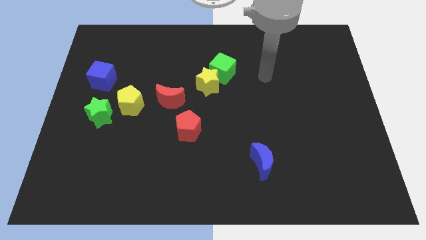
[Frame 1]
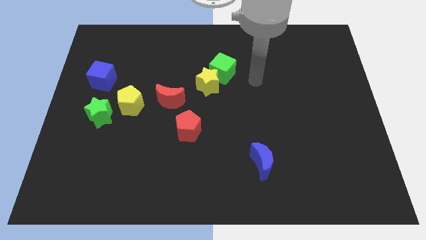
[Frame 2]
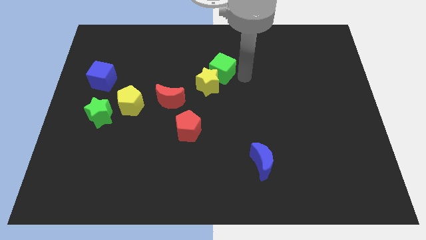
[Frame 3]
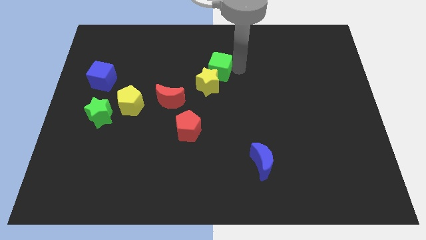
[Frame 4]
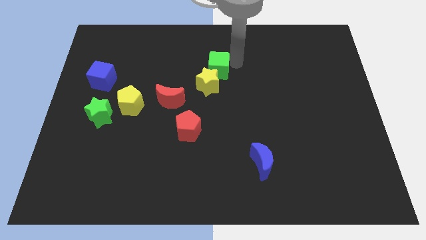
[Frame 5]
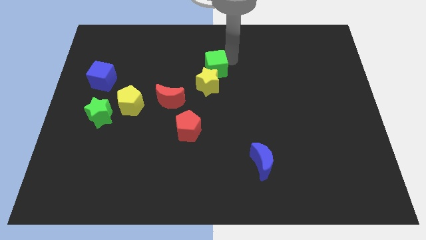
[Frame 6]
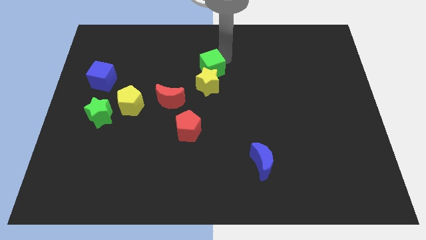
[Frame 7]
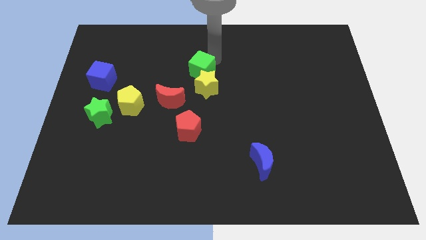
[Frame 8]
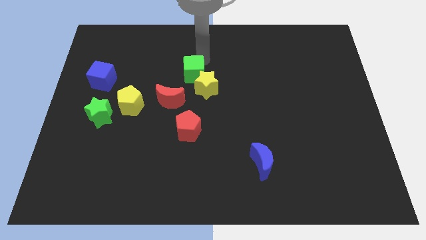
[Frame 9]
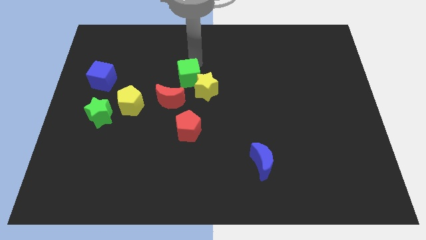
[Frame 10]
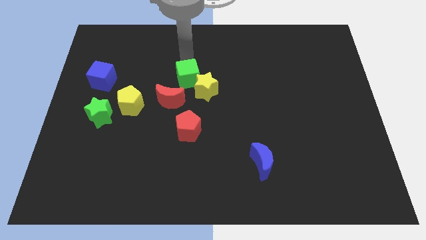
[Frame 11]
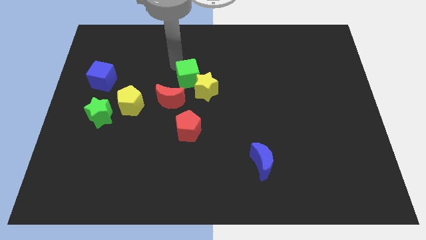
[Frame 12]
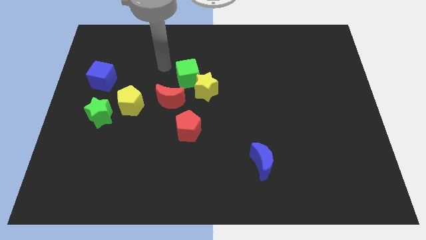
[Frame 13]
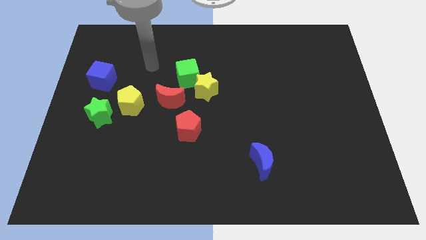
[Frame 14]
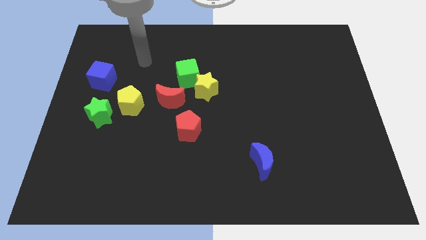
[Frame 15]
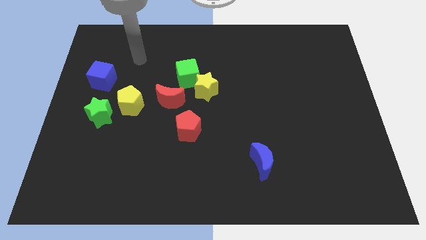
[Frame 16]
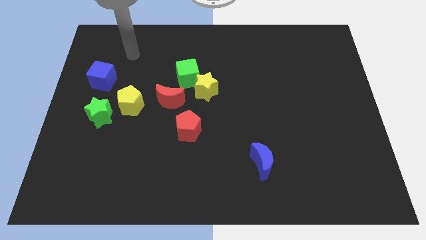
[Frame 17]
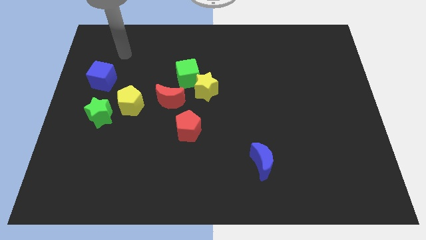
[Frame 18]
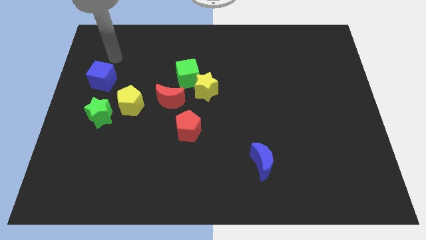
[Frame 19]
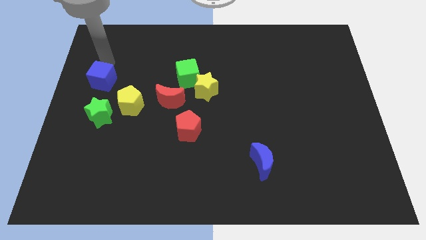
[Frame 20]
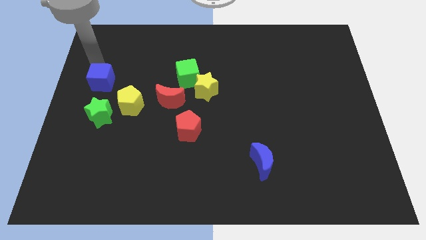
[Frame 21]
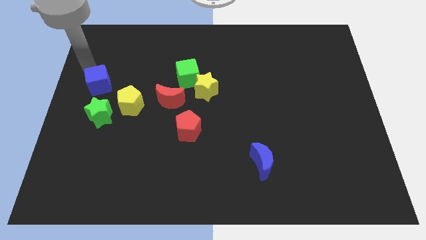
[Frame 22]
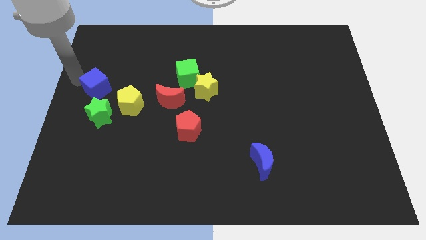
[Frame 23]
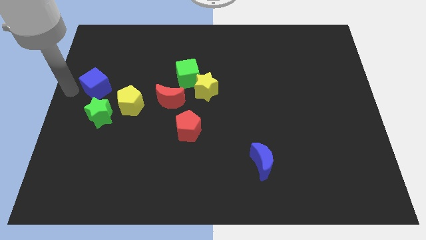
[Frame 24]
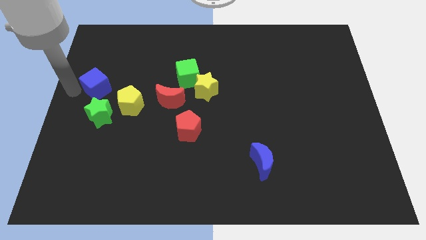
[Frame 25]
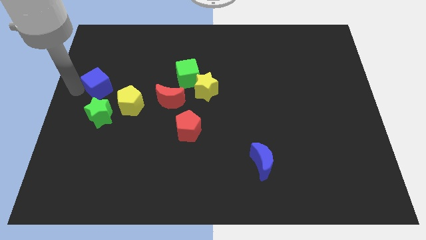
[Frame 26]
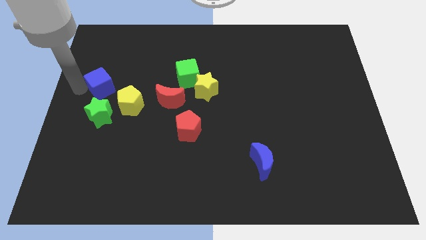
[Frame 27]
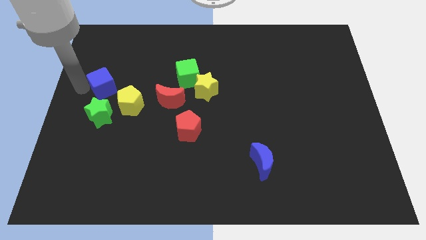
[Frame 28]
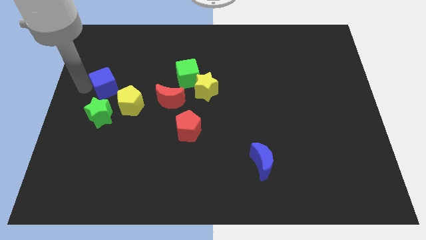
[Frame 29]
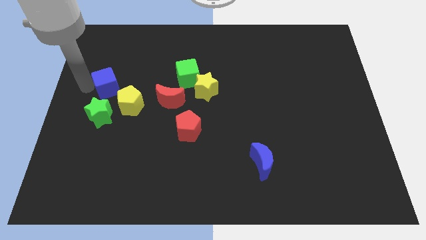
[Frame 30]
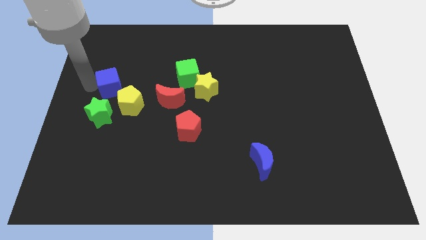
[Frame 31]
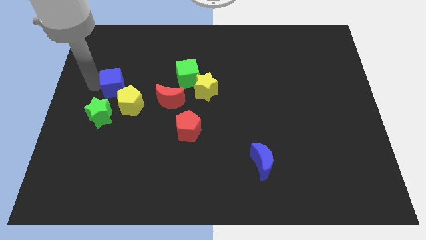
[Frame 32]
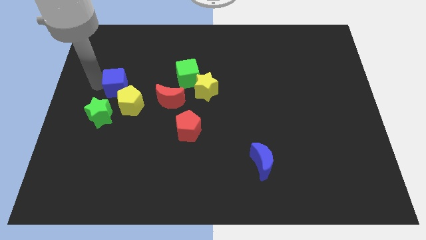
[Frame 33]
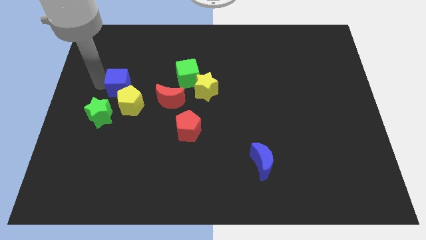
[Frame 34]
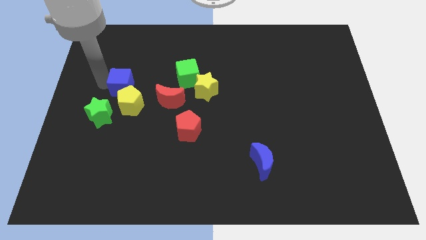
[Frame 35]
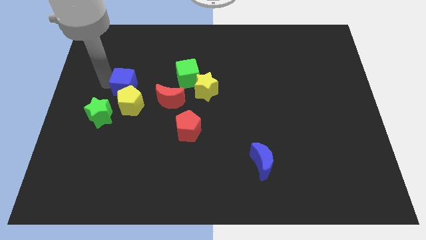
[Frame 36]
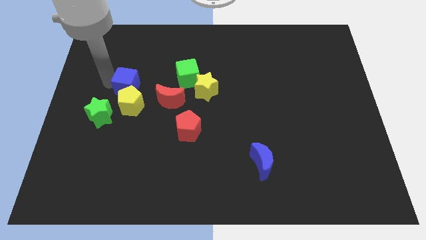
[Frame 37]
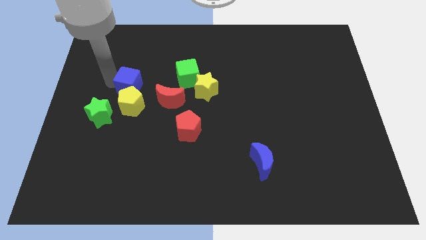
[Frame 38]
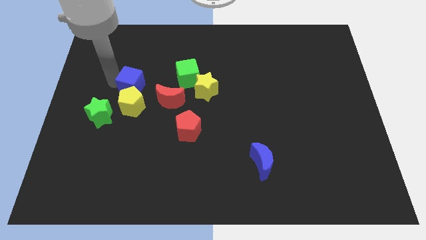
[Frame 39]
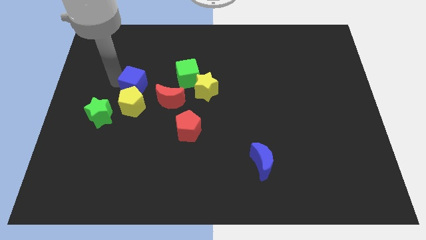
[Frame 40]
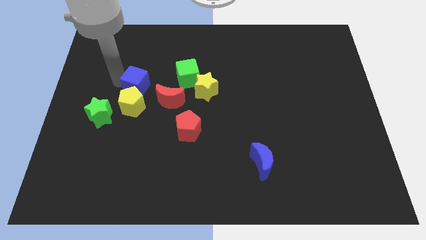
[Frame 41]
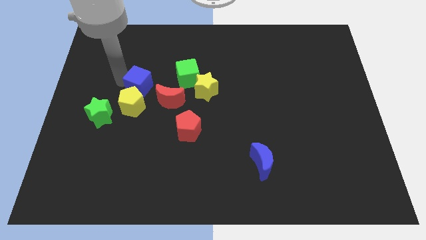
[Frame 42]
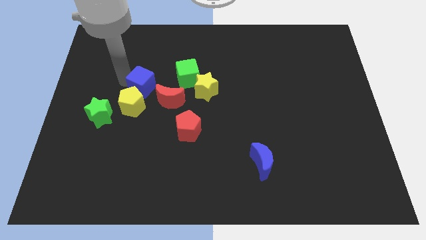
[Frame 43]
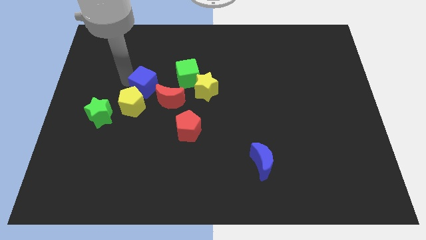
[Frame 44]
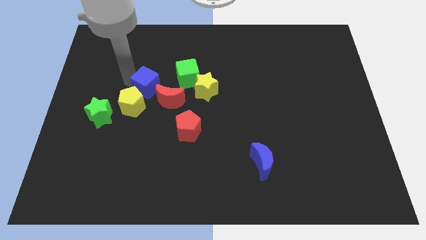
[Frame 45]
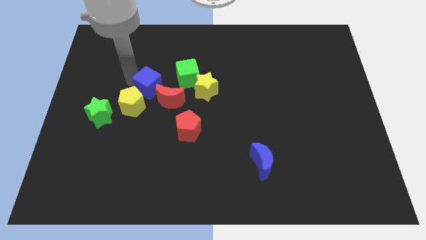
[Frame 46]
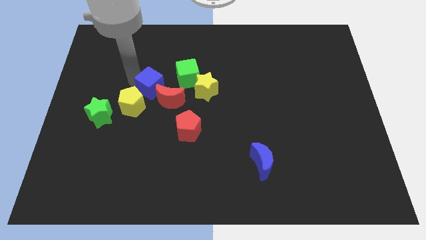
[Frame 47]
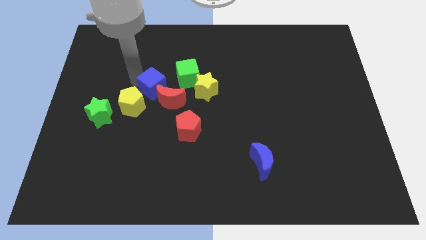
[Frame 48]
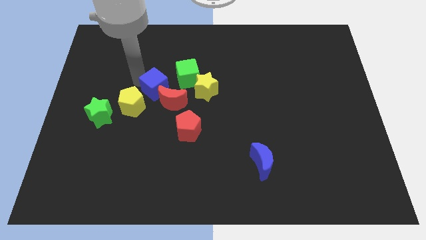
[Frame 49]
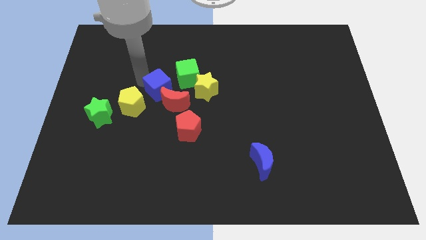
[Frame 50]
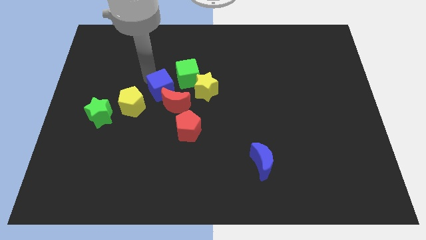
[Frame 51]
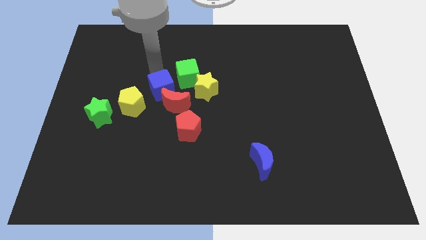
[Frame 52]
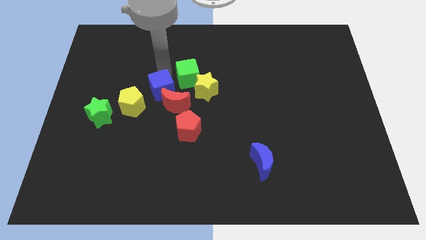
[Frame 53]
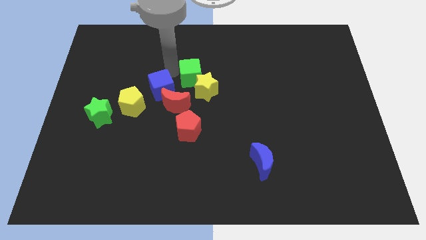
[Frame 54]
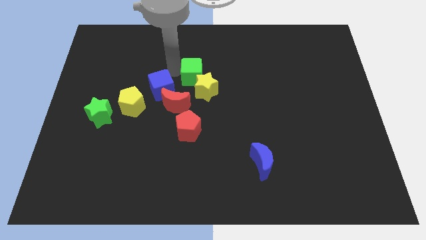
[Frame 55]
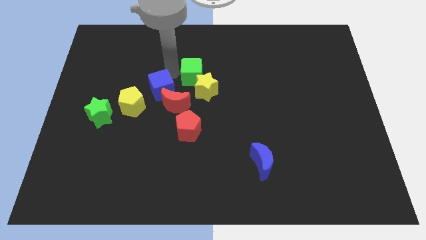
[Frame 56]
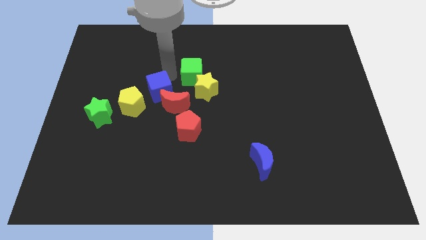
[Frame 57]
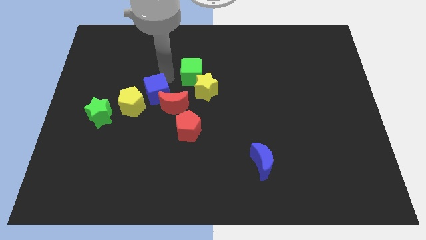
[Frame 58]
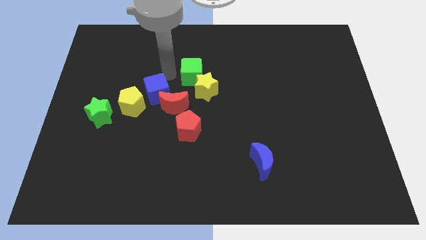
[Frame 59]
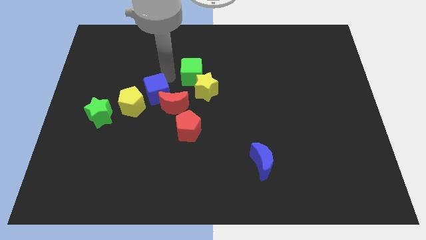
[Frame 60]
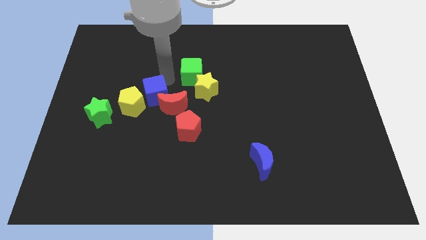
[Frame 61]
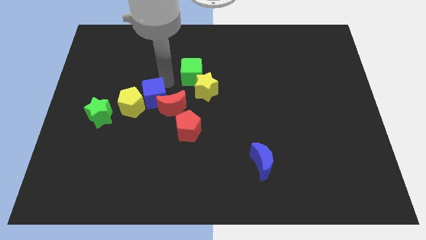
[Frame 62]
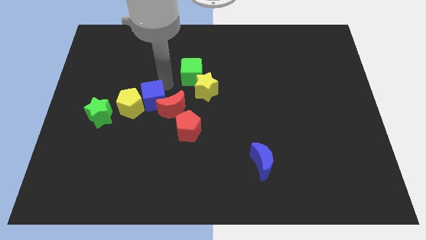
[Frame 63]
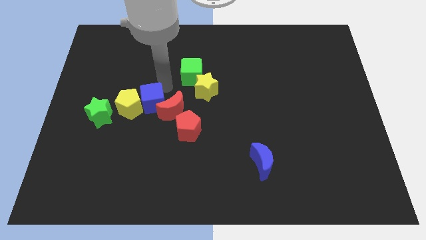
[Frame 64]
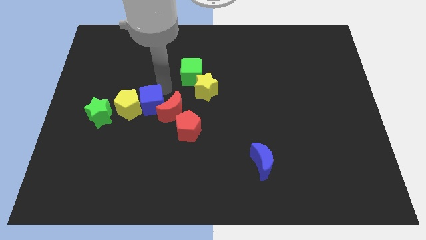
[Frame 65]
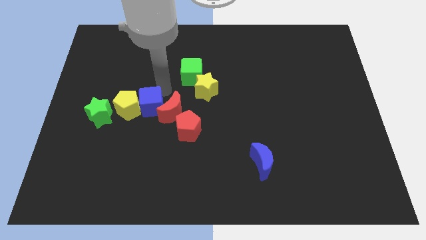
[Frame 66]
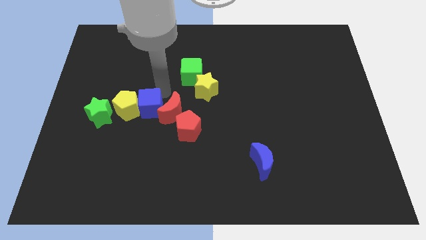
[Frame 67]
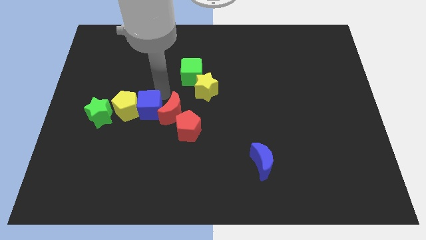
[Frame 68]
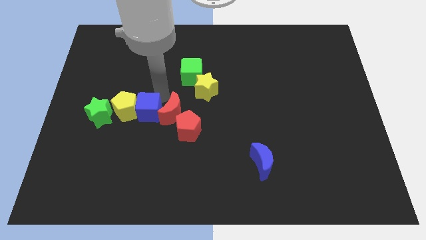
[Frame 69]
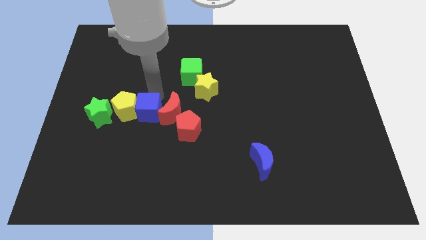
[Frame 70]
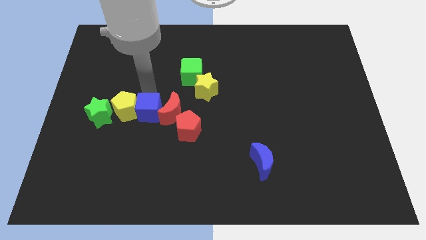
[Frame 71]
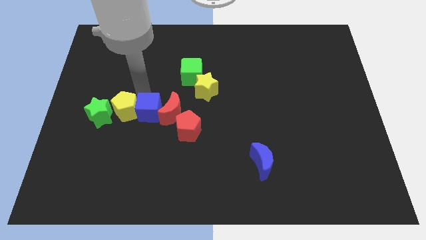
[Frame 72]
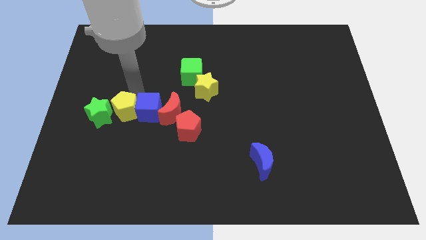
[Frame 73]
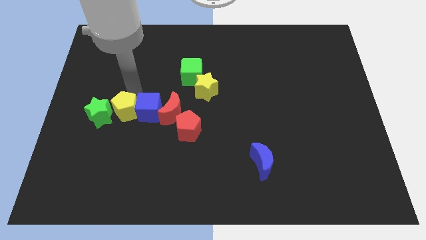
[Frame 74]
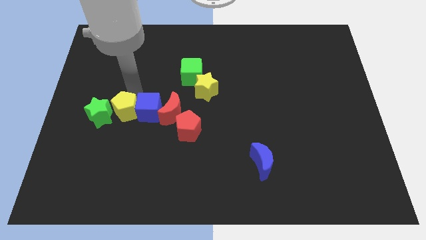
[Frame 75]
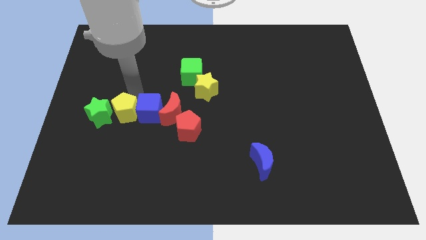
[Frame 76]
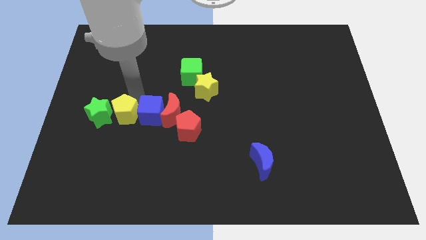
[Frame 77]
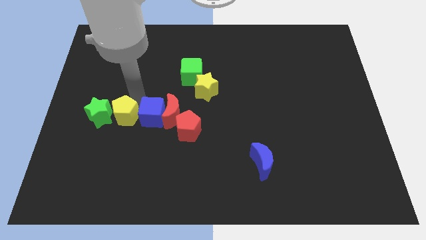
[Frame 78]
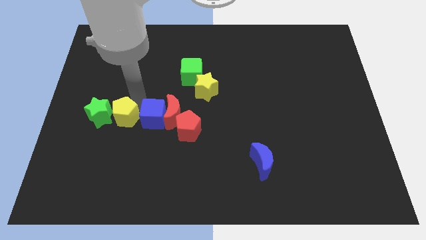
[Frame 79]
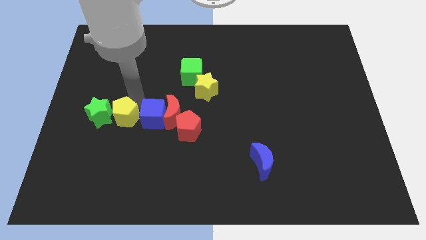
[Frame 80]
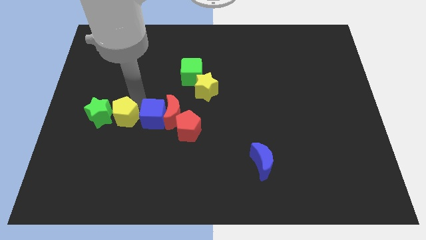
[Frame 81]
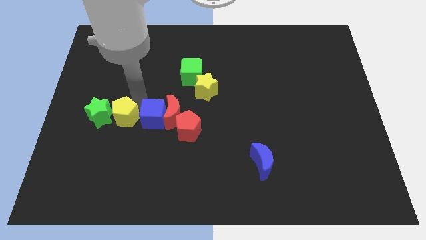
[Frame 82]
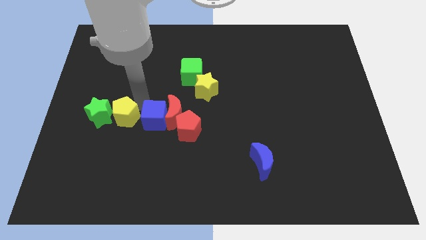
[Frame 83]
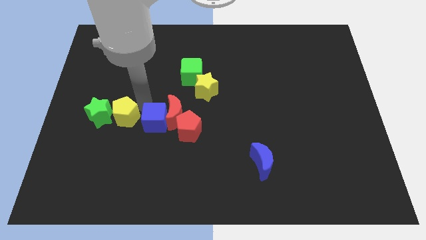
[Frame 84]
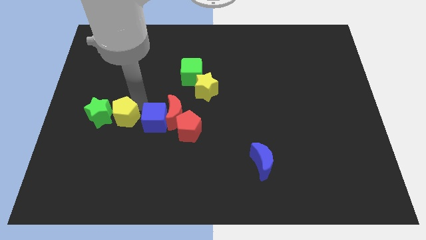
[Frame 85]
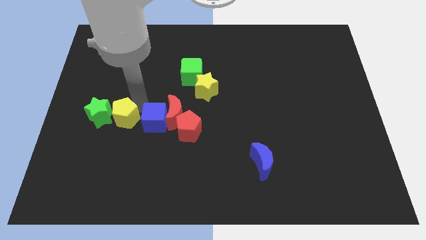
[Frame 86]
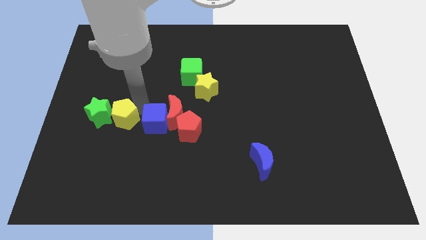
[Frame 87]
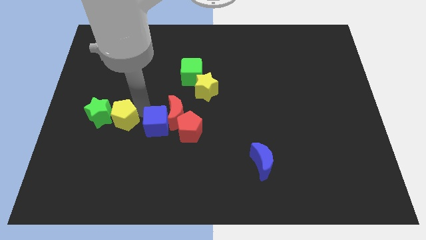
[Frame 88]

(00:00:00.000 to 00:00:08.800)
move the blue cube downwards and then right
